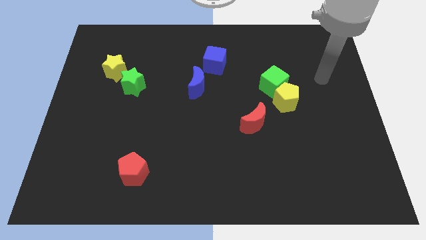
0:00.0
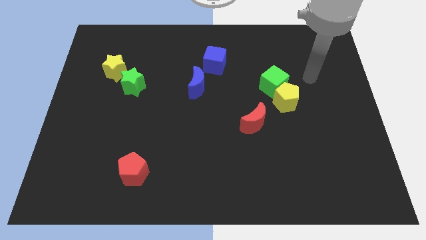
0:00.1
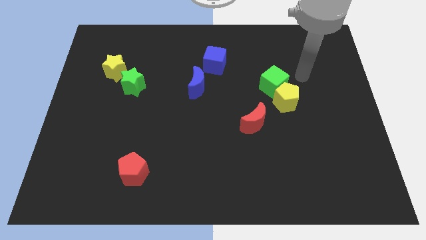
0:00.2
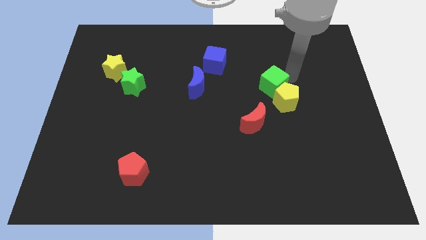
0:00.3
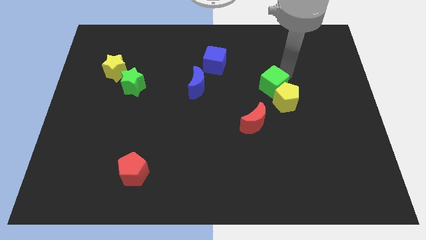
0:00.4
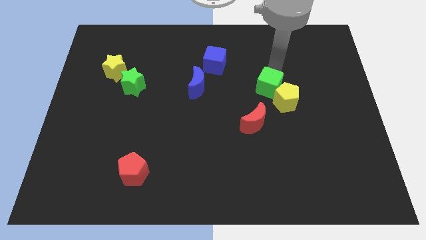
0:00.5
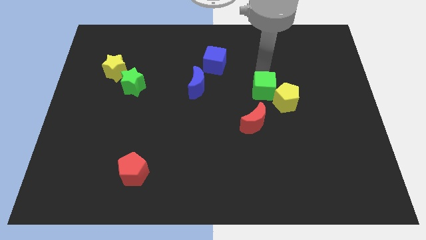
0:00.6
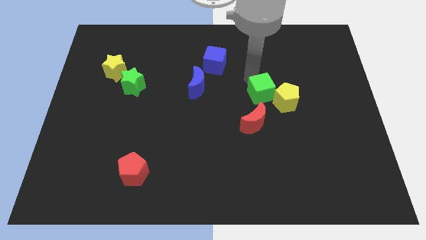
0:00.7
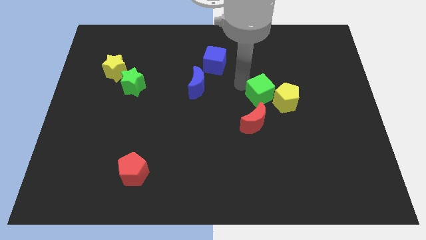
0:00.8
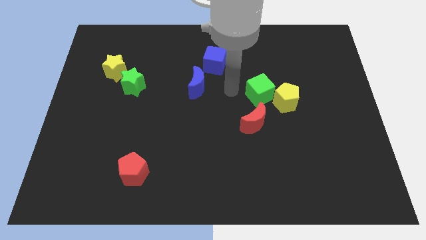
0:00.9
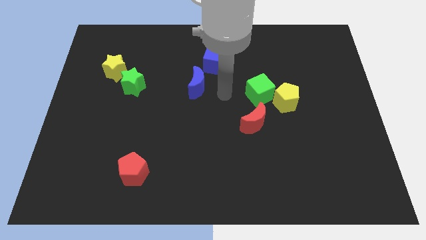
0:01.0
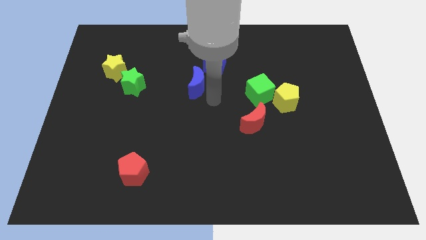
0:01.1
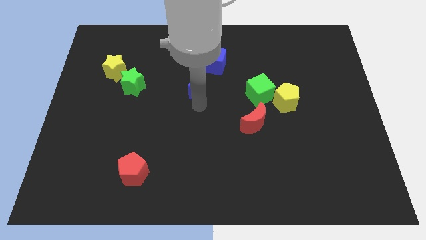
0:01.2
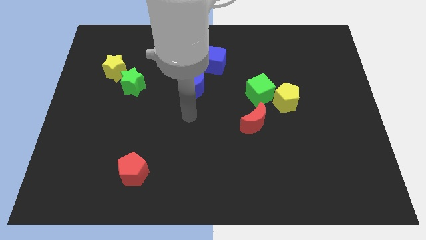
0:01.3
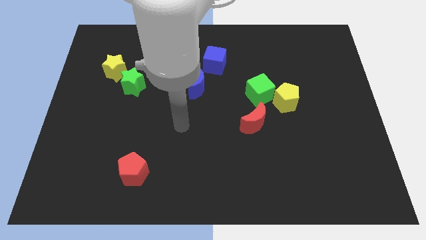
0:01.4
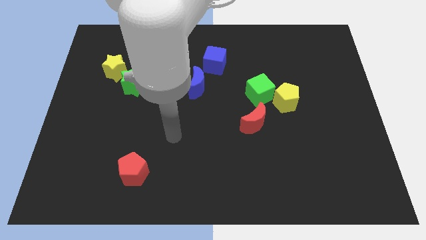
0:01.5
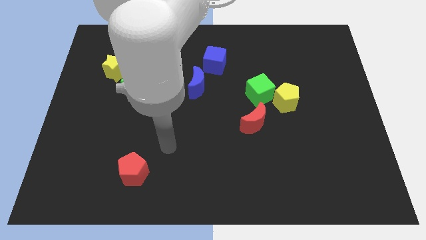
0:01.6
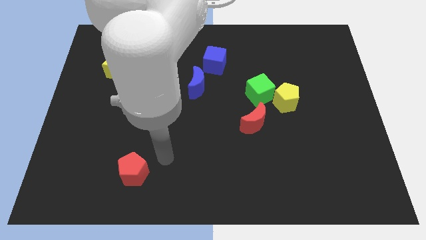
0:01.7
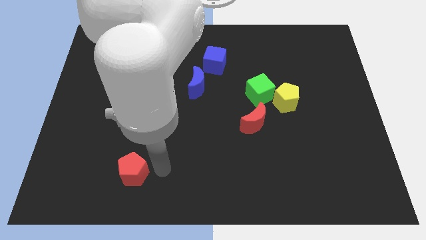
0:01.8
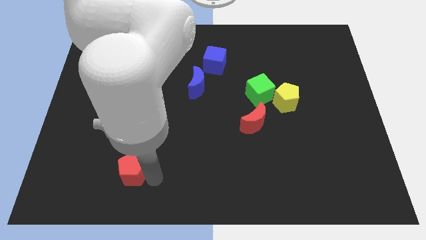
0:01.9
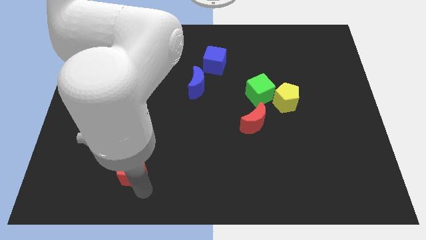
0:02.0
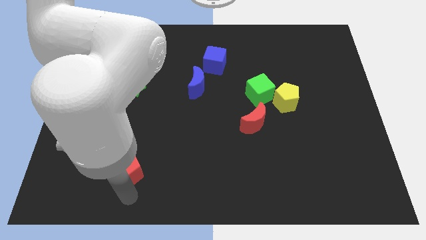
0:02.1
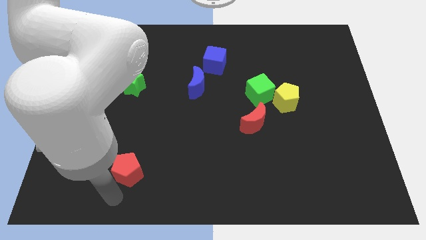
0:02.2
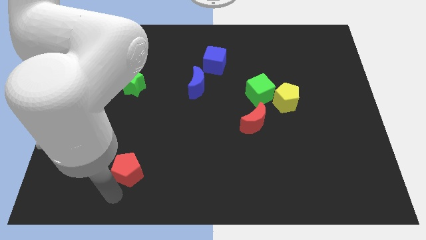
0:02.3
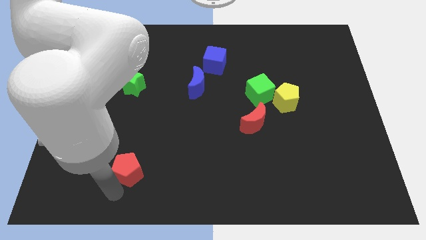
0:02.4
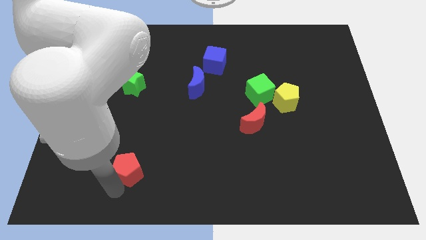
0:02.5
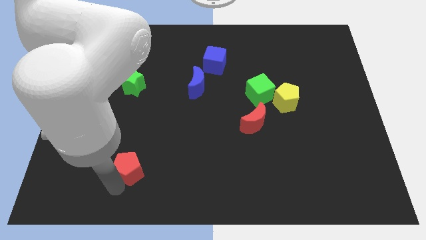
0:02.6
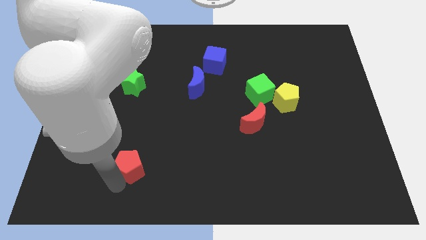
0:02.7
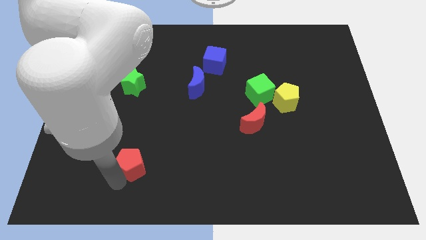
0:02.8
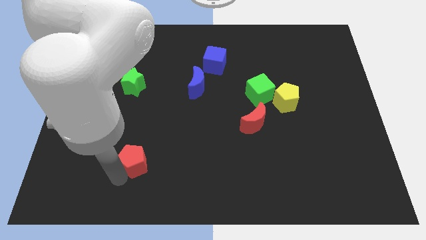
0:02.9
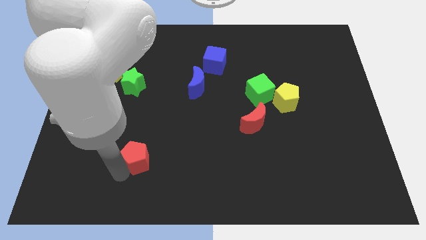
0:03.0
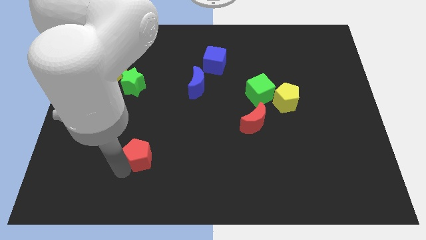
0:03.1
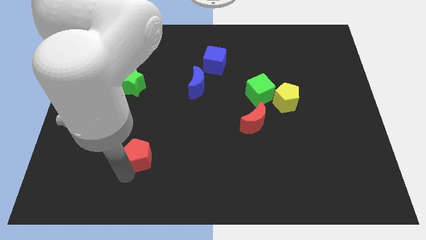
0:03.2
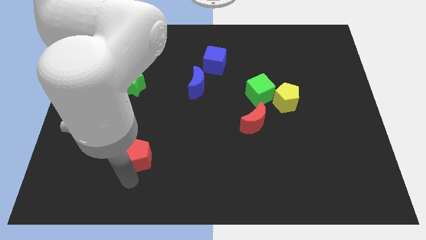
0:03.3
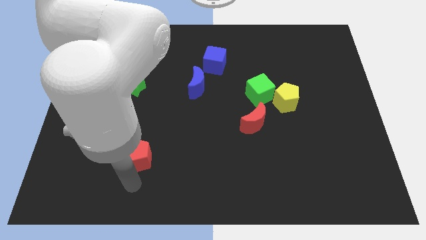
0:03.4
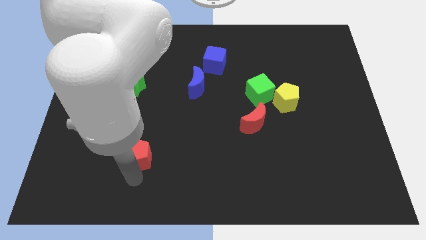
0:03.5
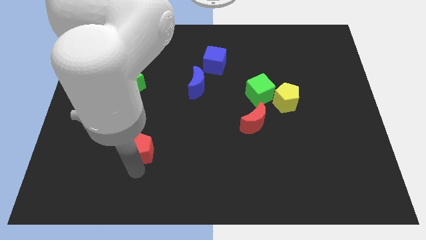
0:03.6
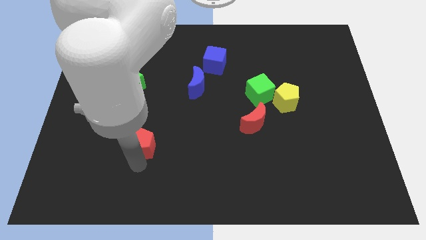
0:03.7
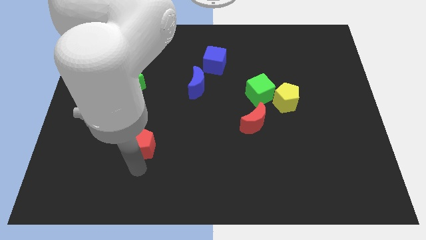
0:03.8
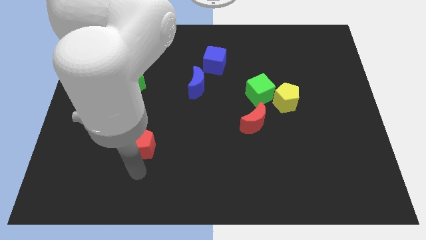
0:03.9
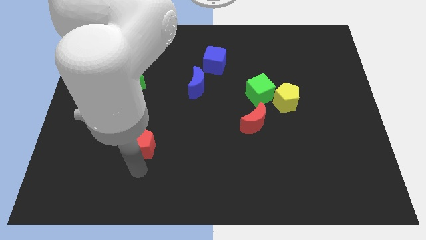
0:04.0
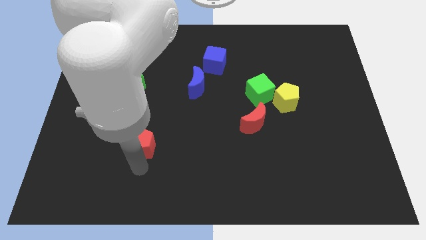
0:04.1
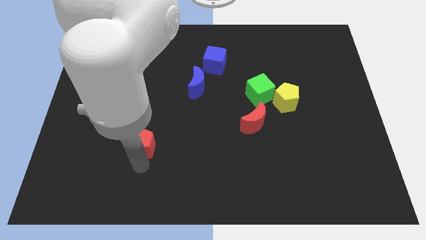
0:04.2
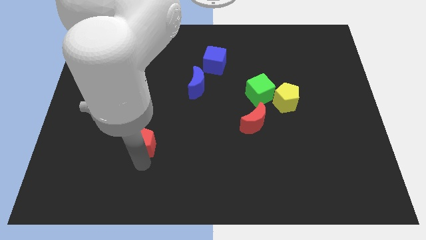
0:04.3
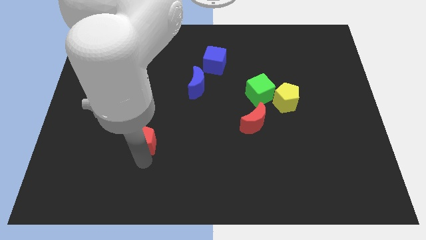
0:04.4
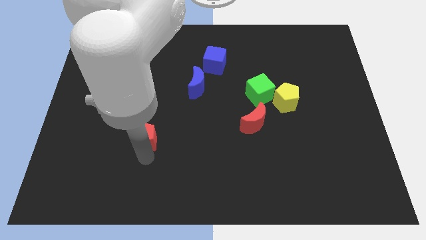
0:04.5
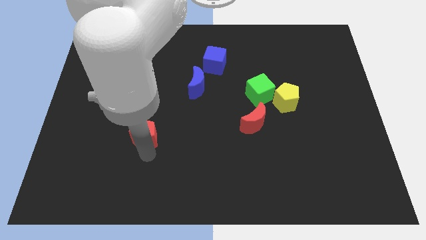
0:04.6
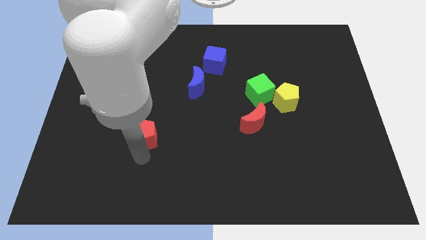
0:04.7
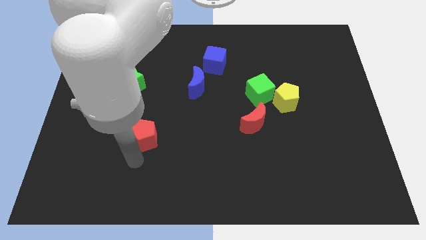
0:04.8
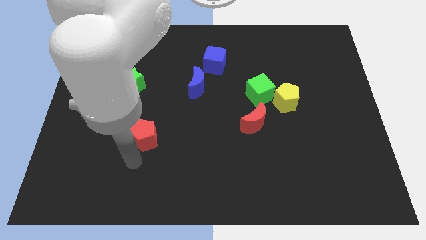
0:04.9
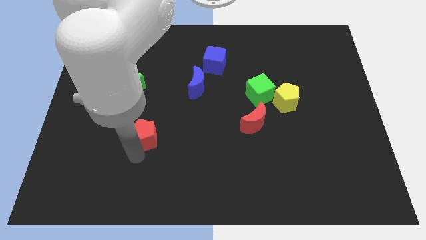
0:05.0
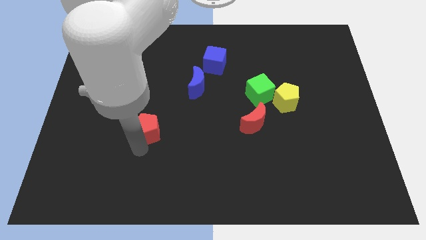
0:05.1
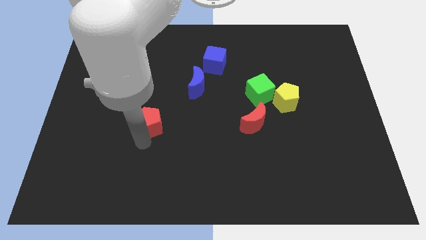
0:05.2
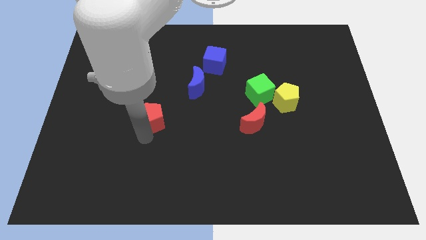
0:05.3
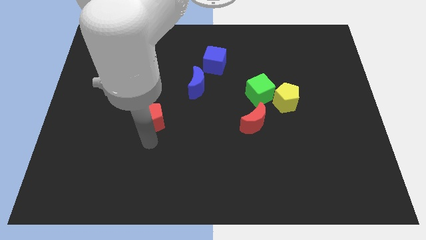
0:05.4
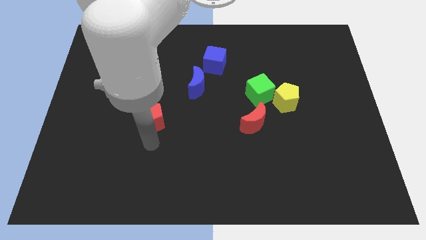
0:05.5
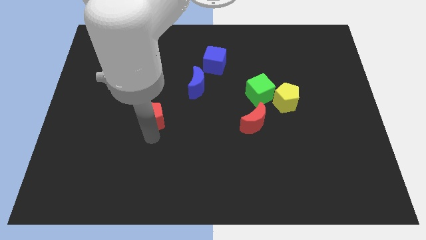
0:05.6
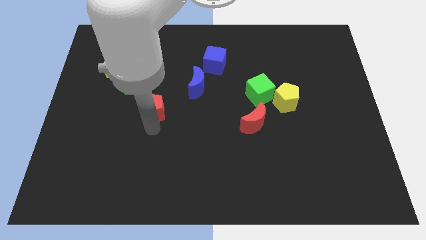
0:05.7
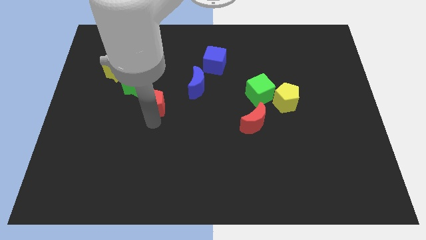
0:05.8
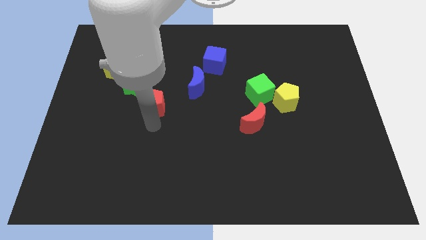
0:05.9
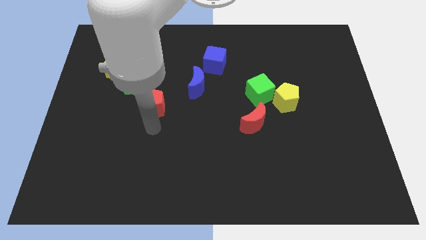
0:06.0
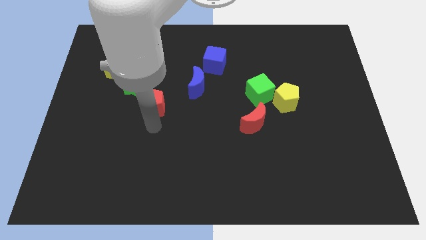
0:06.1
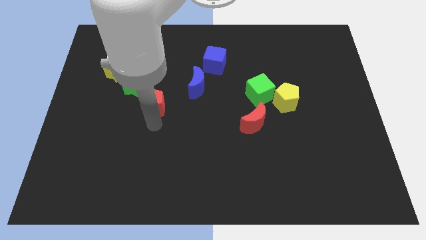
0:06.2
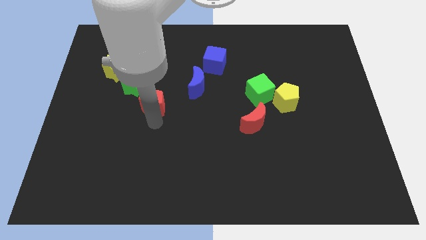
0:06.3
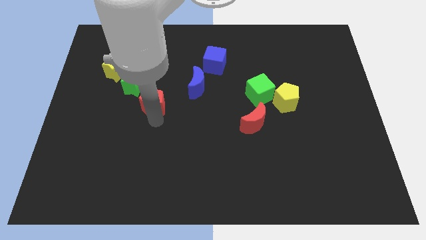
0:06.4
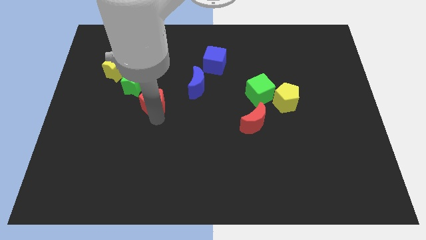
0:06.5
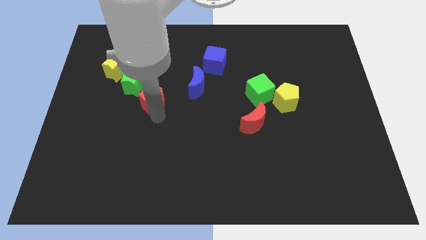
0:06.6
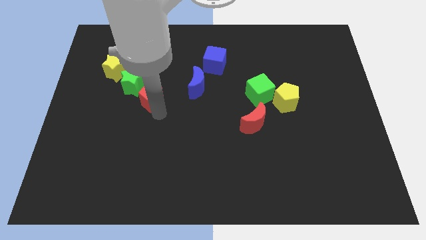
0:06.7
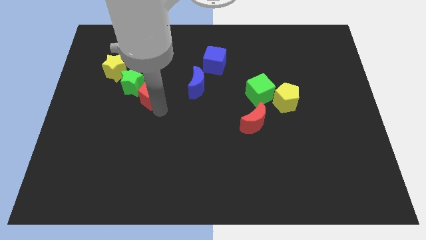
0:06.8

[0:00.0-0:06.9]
move the red pentagon upwards

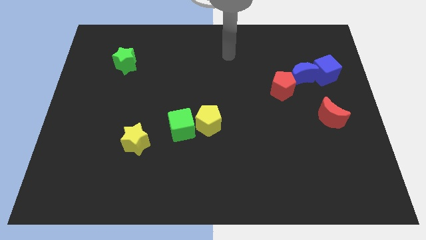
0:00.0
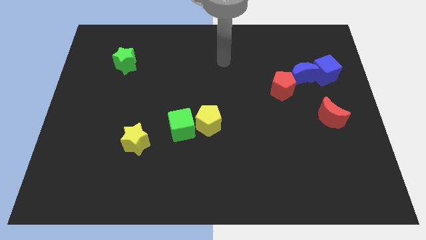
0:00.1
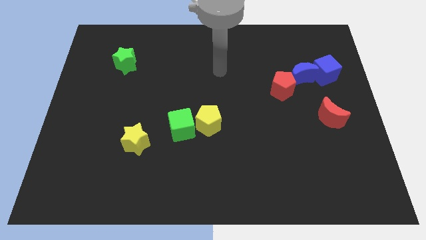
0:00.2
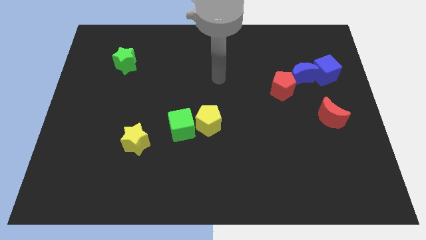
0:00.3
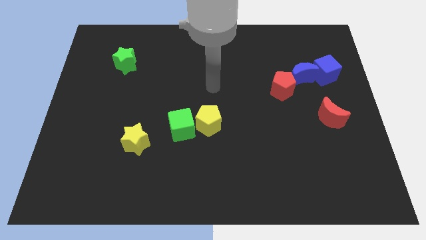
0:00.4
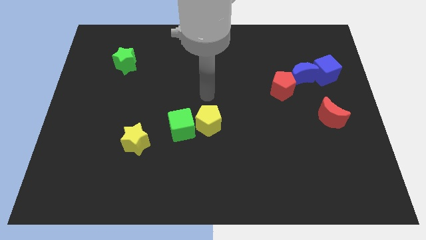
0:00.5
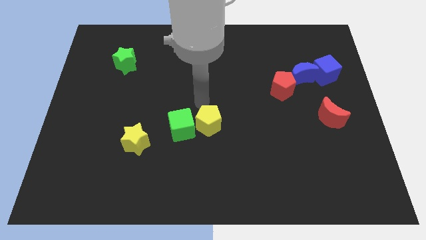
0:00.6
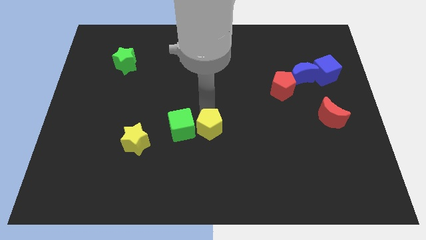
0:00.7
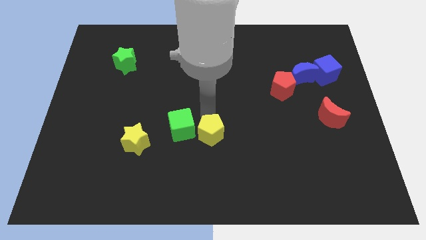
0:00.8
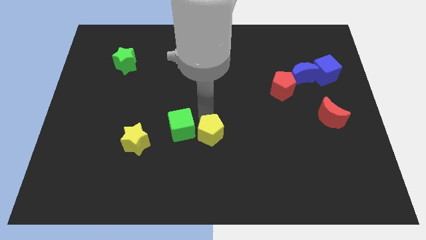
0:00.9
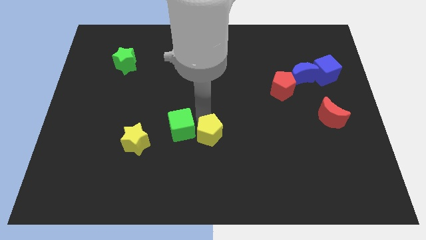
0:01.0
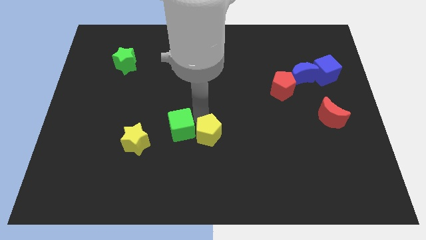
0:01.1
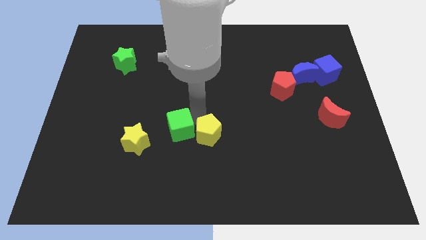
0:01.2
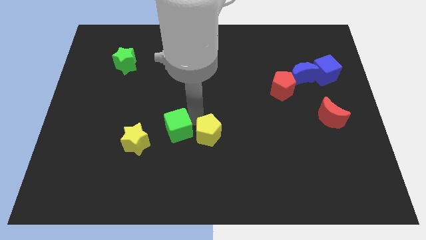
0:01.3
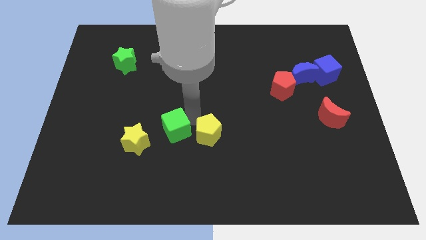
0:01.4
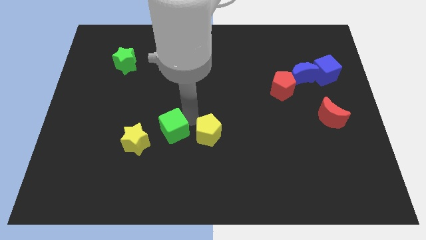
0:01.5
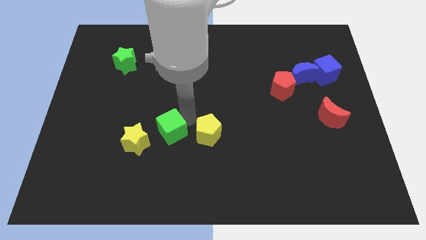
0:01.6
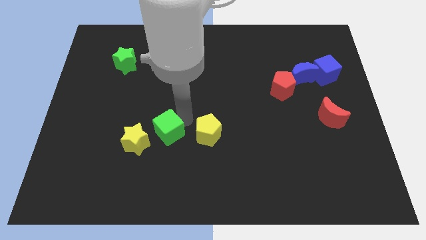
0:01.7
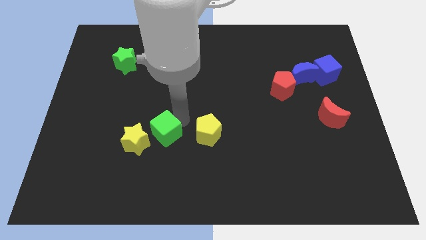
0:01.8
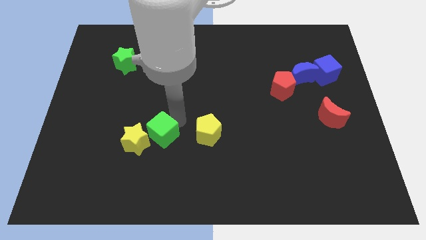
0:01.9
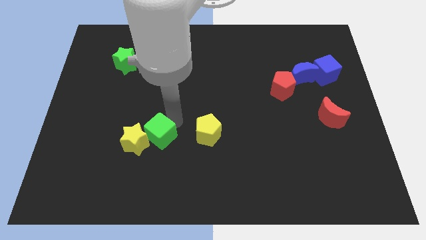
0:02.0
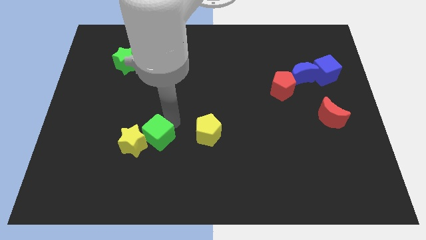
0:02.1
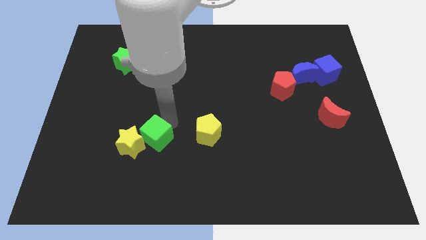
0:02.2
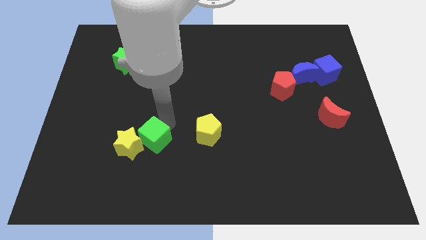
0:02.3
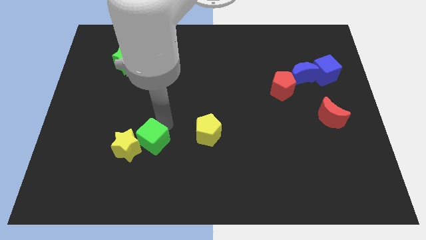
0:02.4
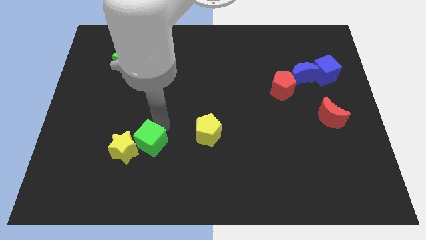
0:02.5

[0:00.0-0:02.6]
slightly slide the green cube downwards and then to the left
